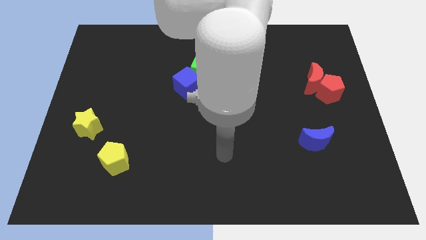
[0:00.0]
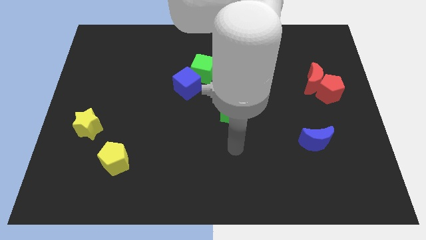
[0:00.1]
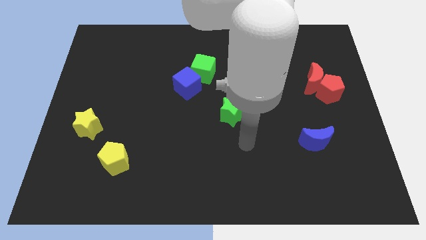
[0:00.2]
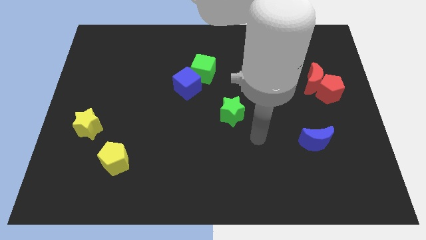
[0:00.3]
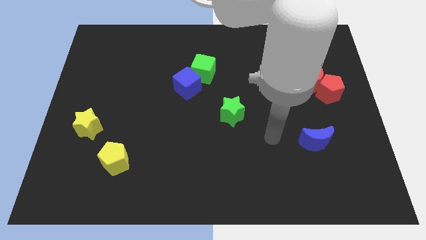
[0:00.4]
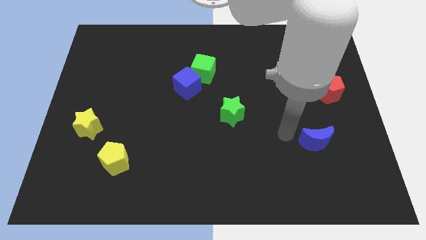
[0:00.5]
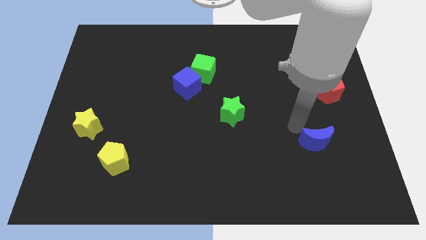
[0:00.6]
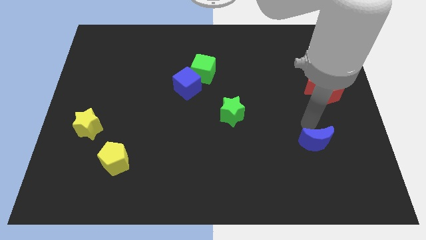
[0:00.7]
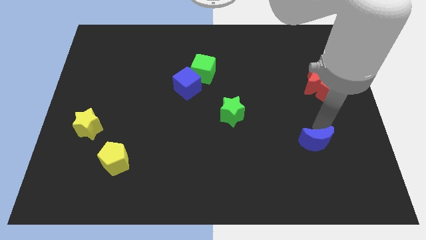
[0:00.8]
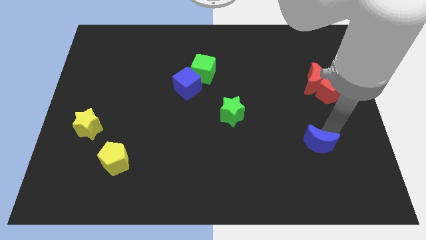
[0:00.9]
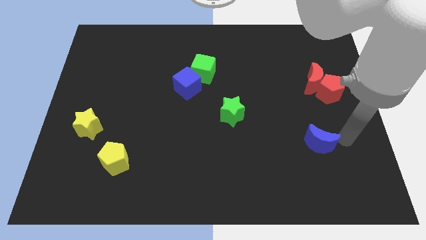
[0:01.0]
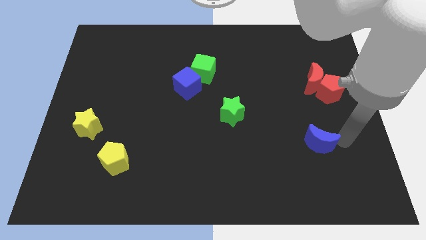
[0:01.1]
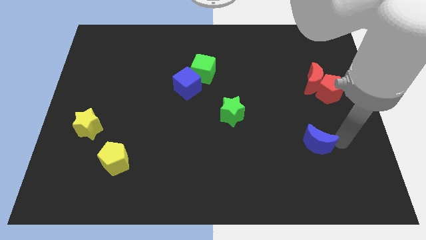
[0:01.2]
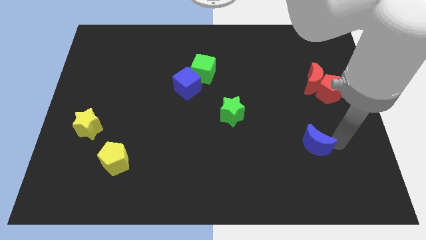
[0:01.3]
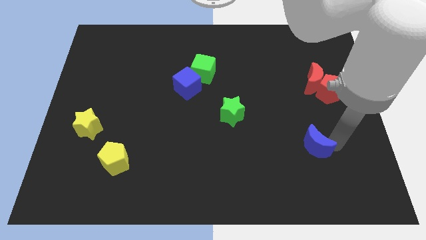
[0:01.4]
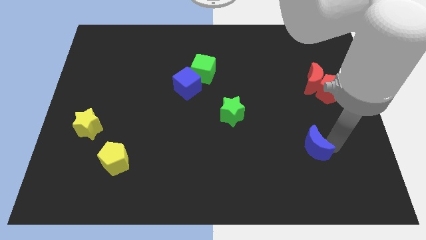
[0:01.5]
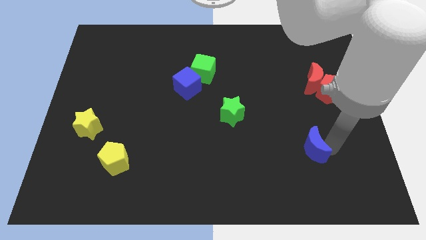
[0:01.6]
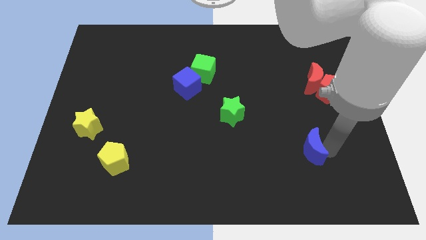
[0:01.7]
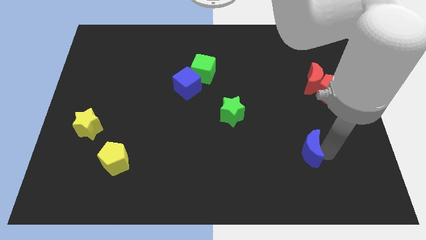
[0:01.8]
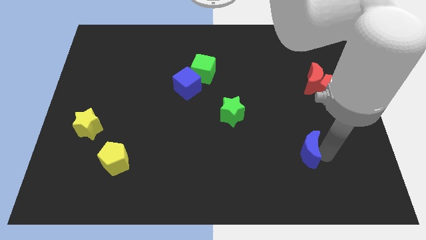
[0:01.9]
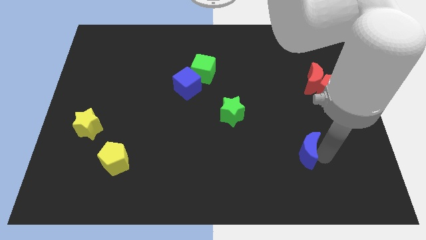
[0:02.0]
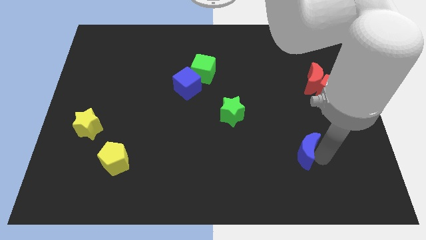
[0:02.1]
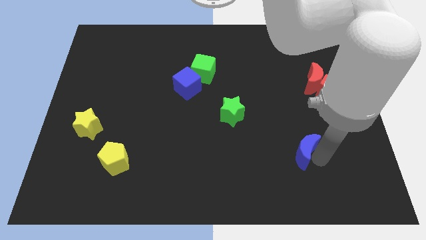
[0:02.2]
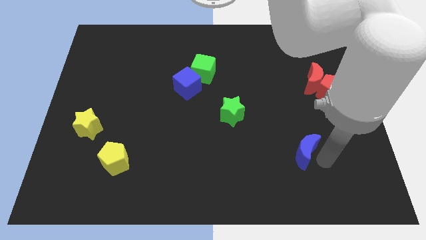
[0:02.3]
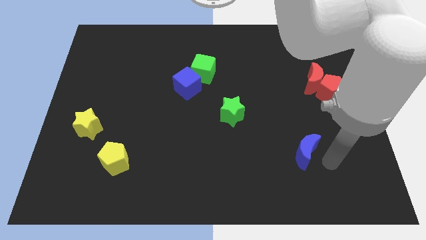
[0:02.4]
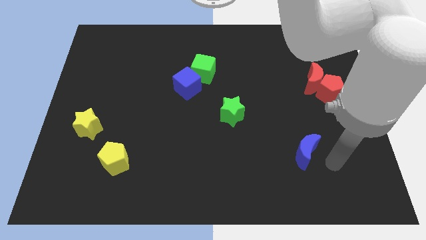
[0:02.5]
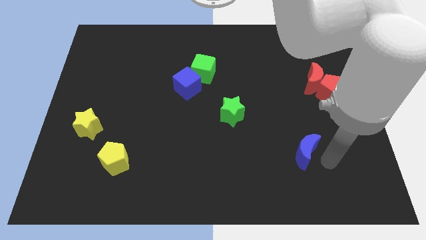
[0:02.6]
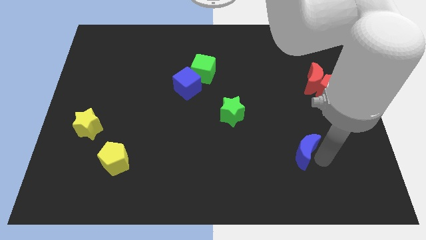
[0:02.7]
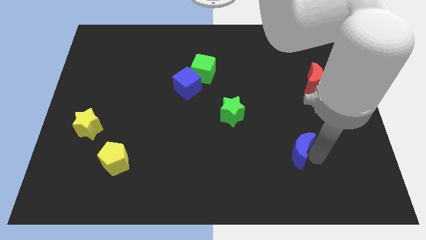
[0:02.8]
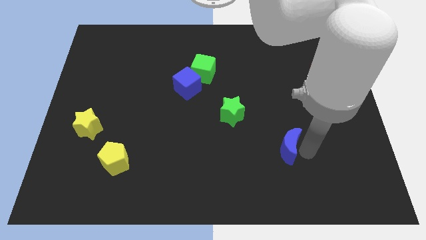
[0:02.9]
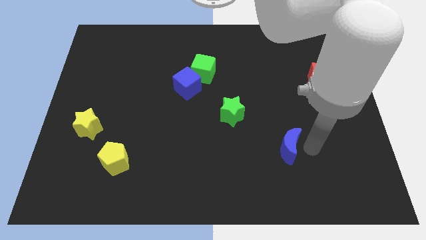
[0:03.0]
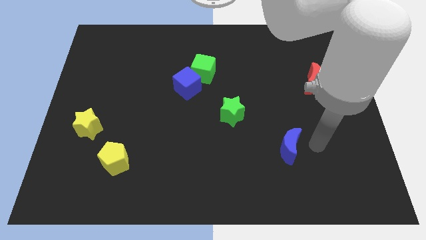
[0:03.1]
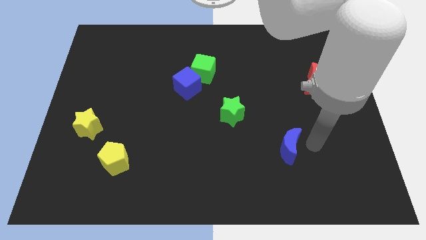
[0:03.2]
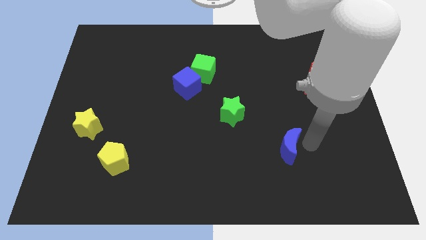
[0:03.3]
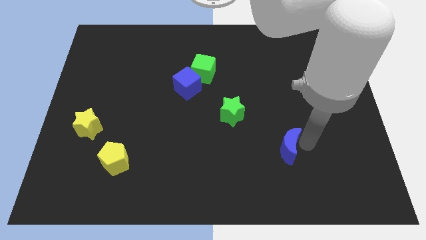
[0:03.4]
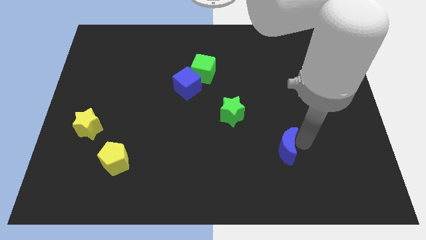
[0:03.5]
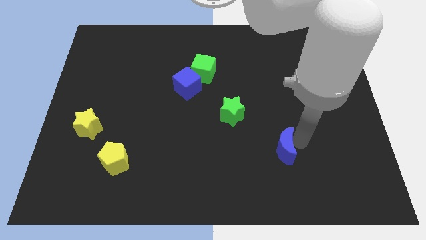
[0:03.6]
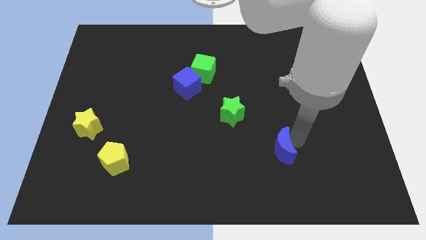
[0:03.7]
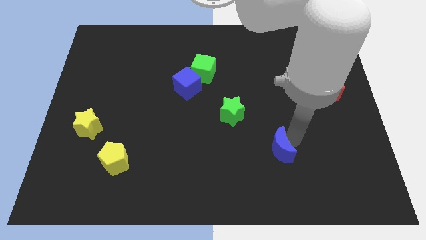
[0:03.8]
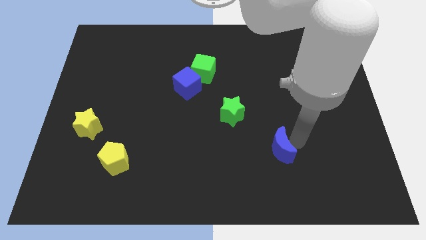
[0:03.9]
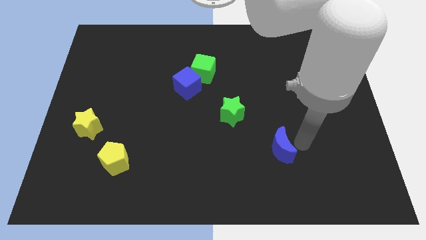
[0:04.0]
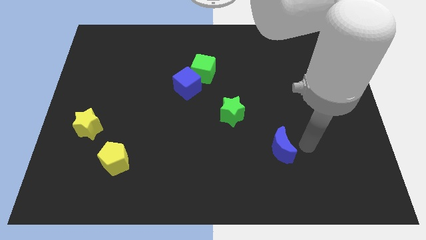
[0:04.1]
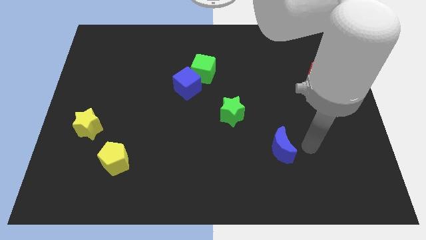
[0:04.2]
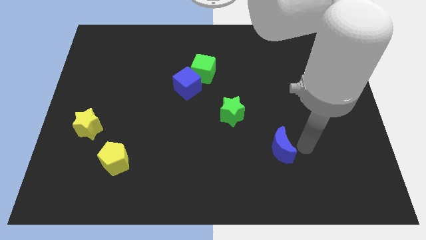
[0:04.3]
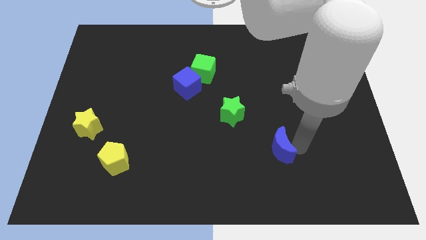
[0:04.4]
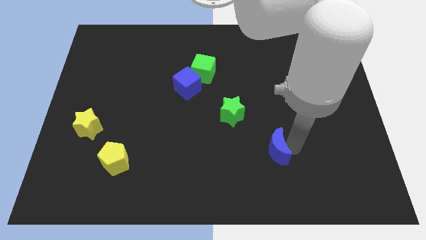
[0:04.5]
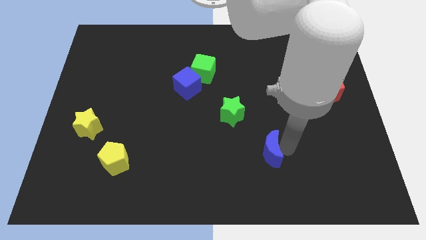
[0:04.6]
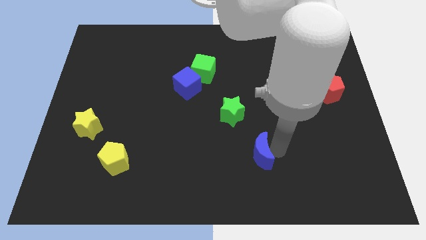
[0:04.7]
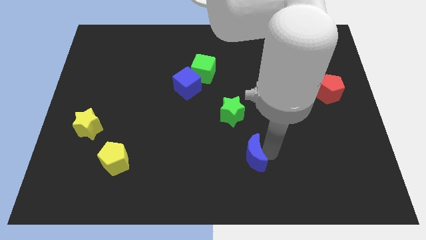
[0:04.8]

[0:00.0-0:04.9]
put the blue moon to the bottom of the green star

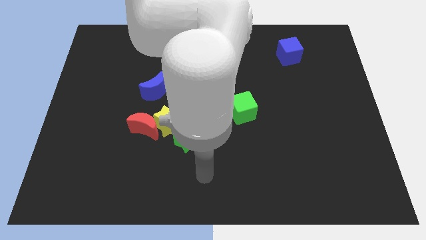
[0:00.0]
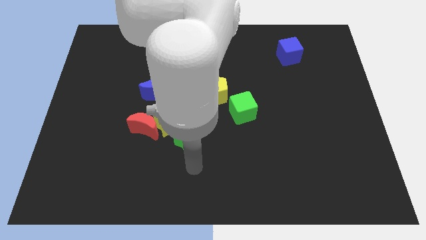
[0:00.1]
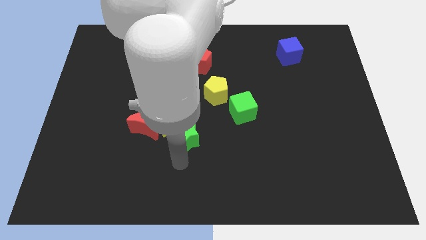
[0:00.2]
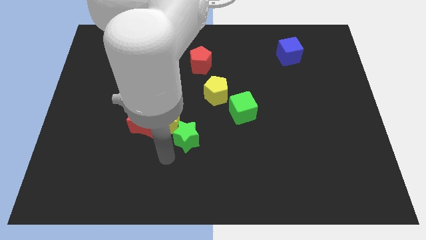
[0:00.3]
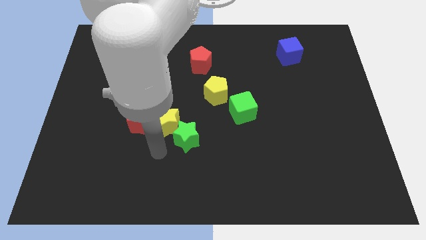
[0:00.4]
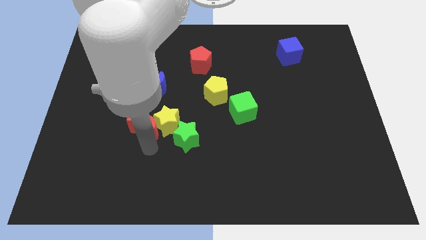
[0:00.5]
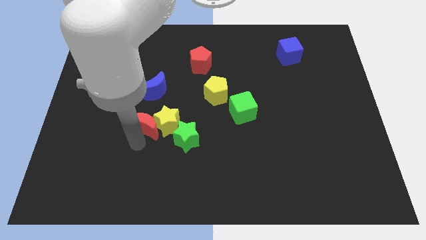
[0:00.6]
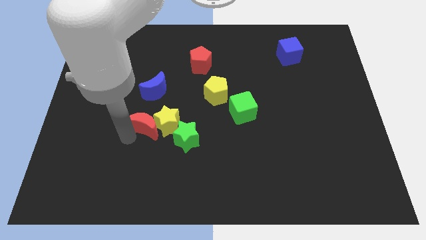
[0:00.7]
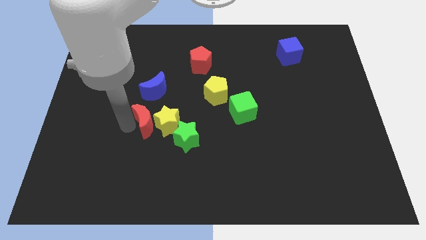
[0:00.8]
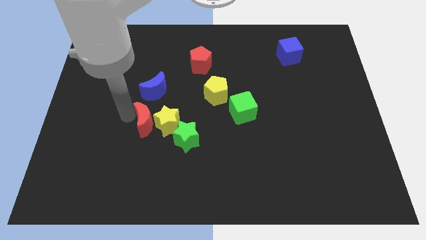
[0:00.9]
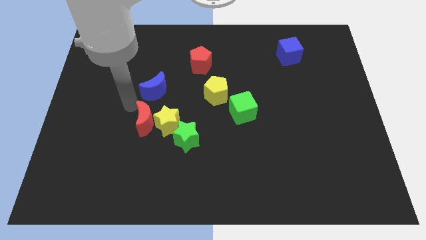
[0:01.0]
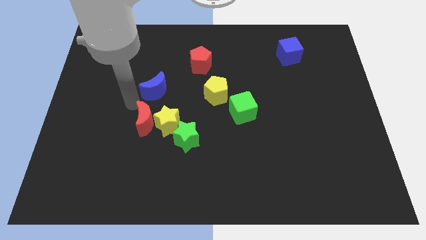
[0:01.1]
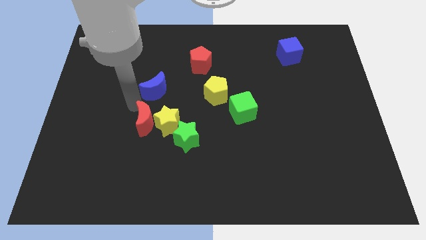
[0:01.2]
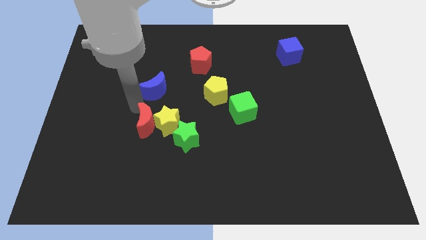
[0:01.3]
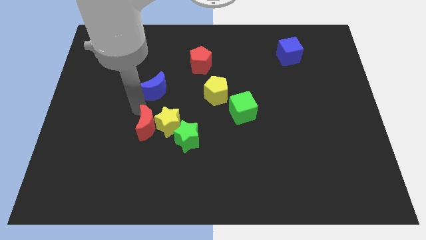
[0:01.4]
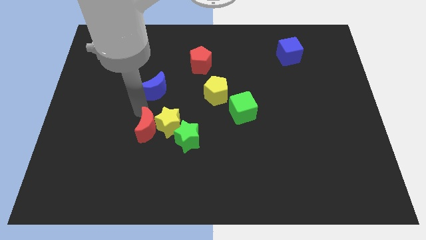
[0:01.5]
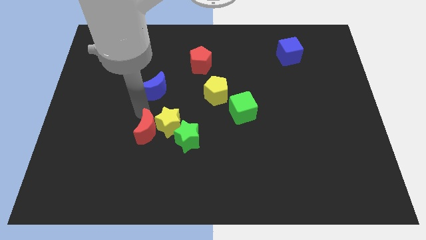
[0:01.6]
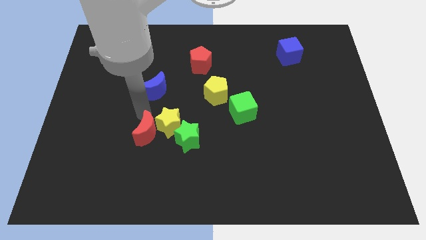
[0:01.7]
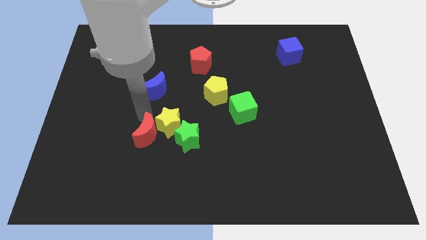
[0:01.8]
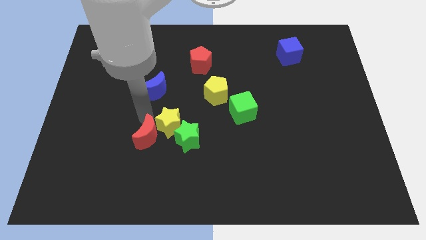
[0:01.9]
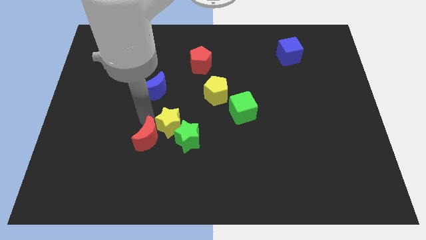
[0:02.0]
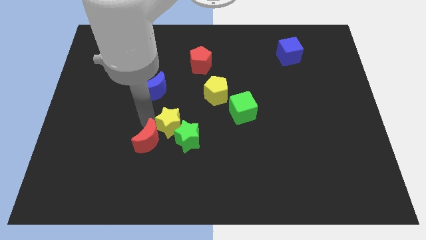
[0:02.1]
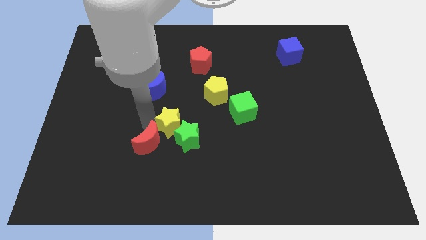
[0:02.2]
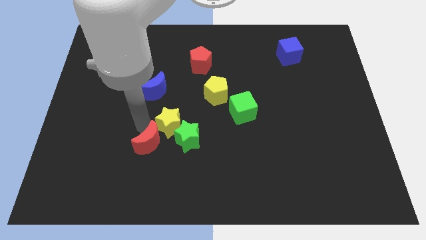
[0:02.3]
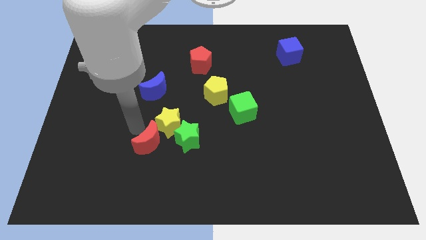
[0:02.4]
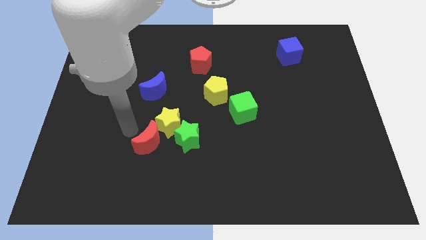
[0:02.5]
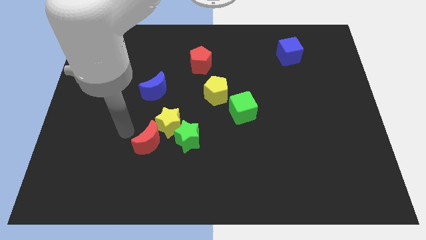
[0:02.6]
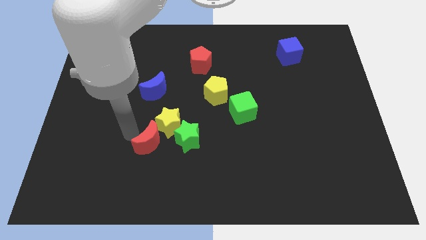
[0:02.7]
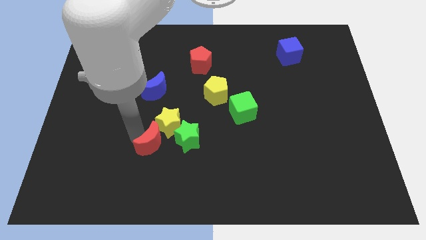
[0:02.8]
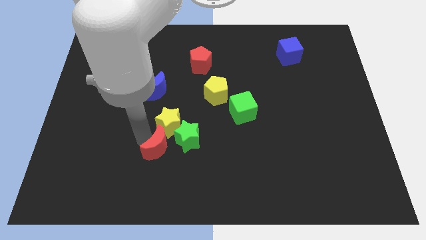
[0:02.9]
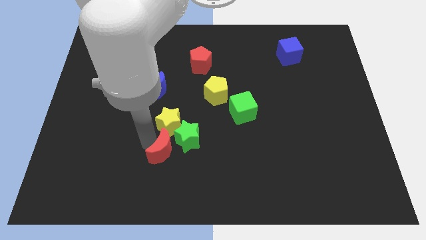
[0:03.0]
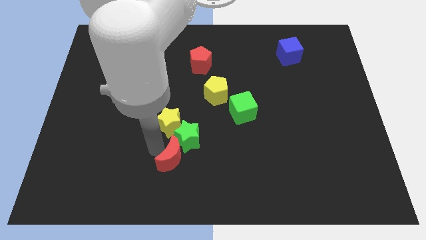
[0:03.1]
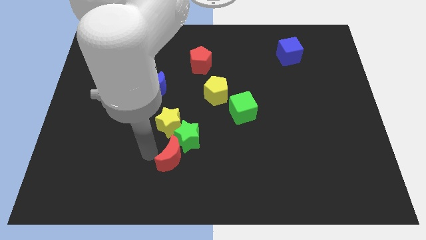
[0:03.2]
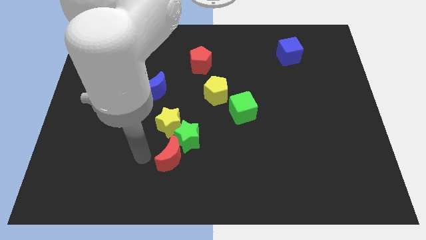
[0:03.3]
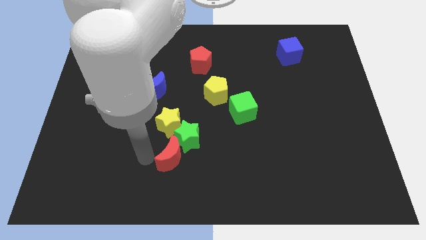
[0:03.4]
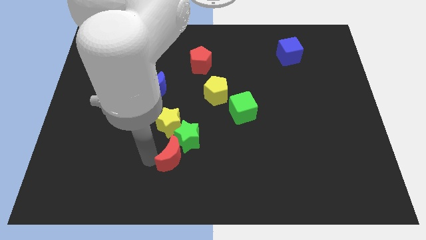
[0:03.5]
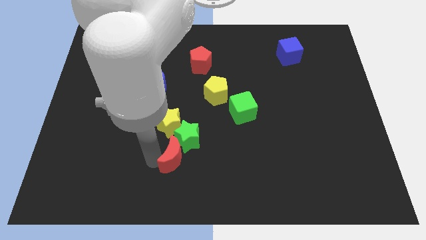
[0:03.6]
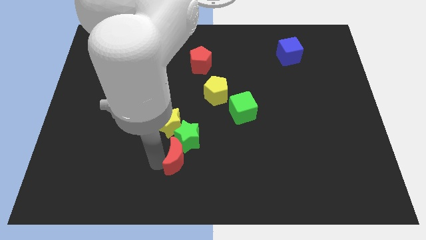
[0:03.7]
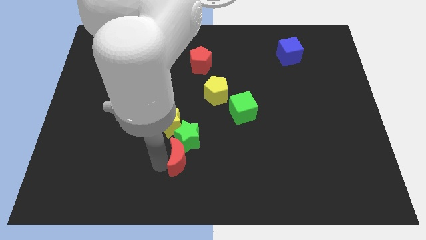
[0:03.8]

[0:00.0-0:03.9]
push the red moon to the bottom right of the green star
